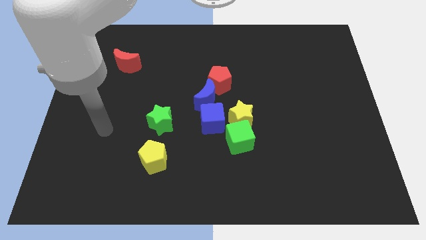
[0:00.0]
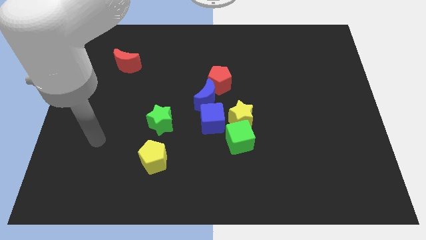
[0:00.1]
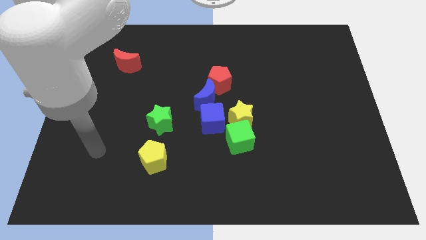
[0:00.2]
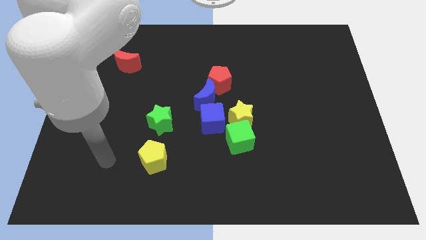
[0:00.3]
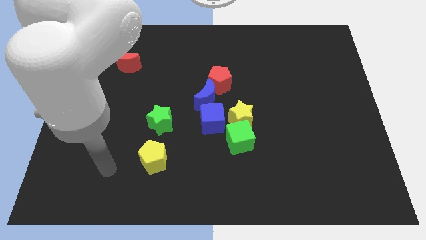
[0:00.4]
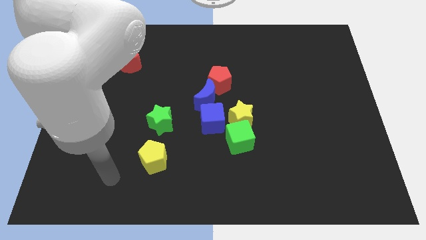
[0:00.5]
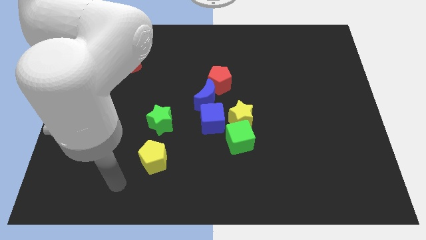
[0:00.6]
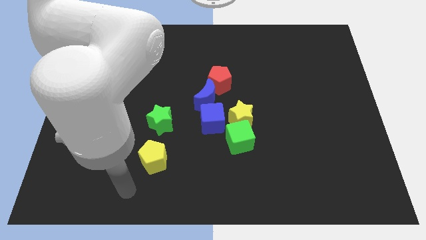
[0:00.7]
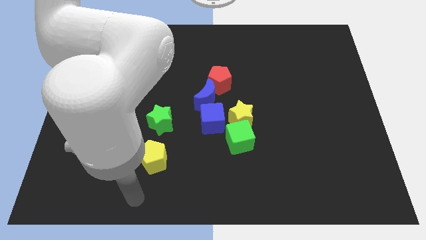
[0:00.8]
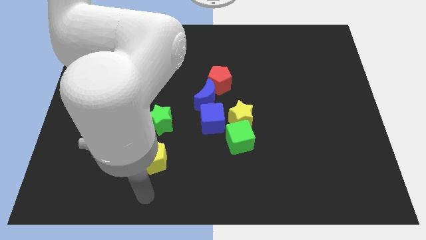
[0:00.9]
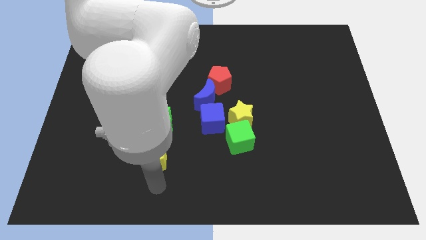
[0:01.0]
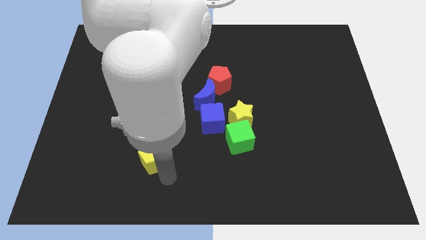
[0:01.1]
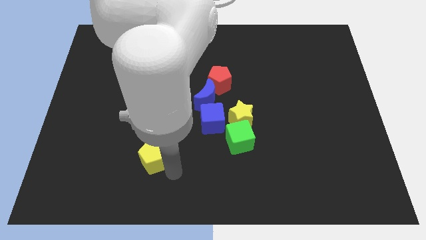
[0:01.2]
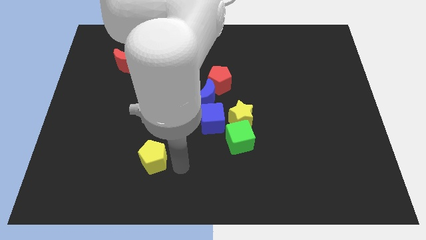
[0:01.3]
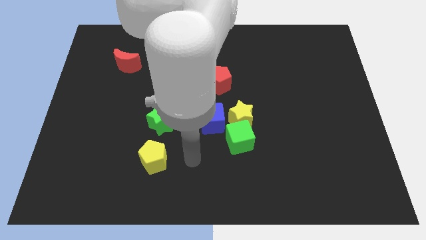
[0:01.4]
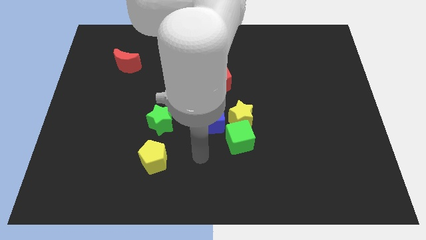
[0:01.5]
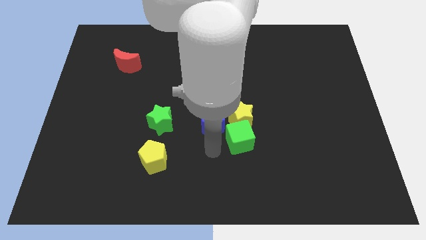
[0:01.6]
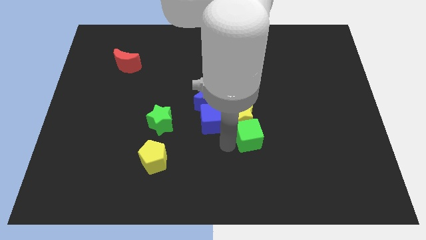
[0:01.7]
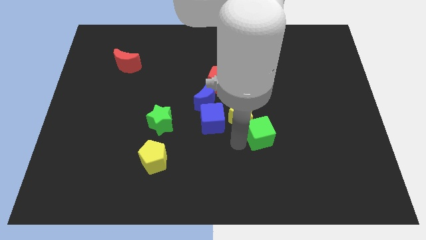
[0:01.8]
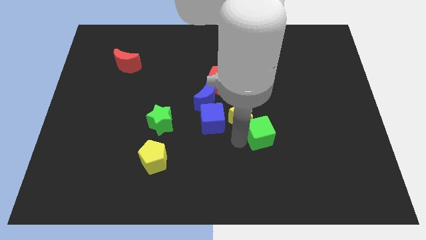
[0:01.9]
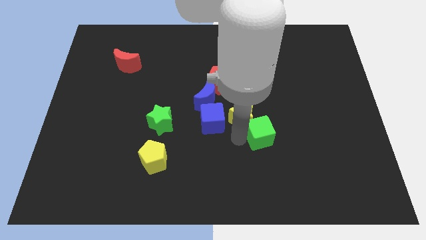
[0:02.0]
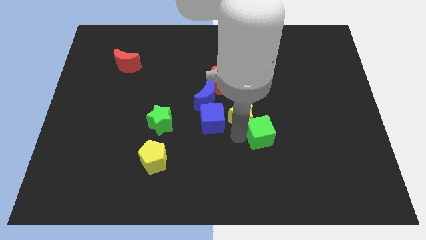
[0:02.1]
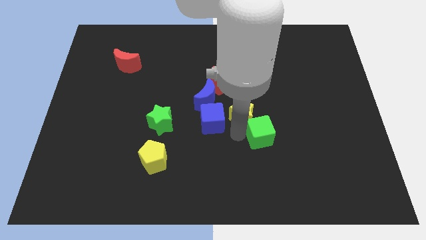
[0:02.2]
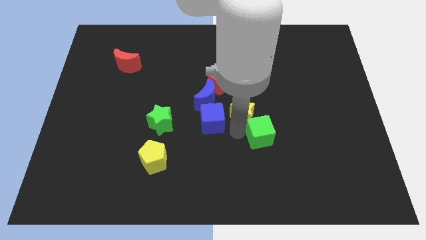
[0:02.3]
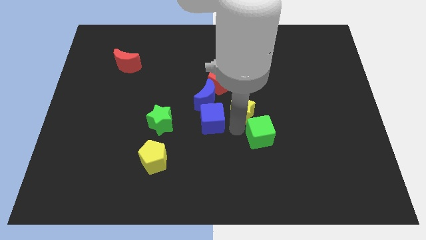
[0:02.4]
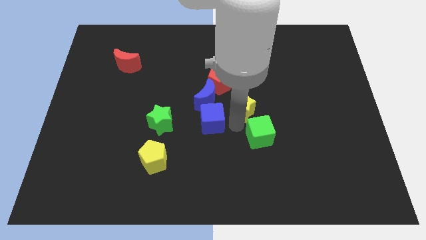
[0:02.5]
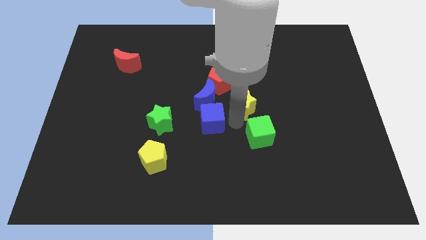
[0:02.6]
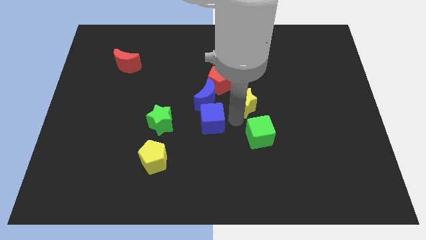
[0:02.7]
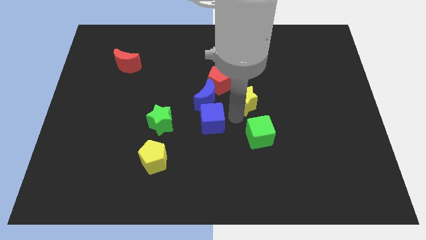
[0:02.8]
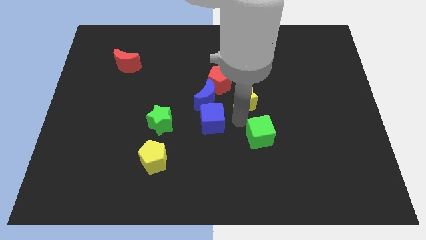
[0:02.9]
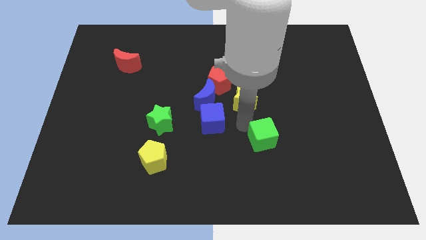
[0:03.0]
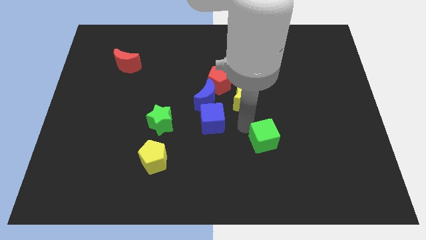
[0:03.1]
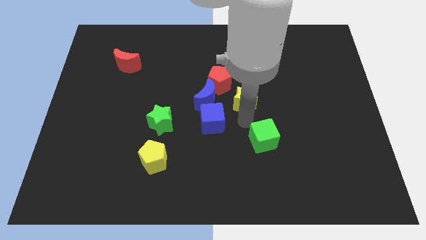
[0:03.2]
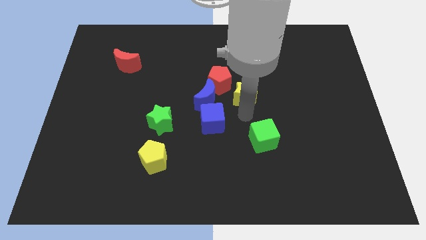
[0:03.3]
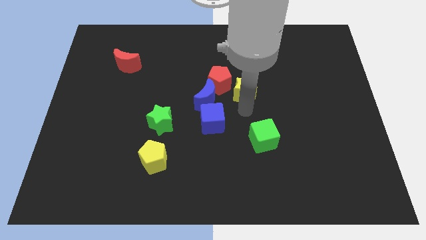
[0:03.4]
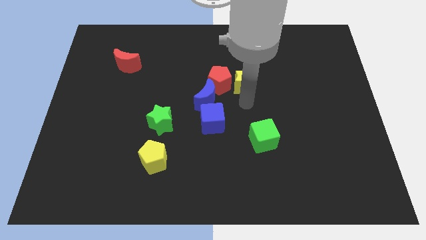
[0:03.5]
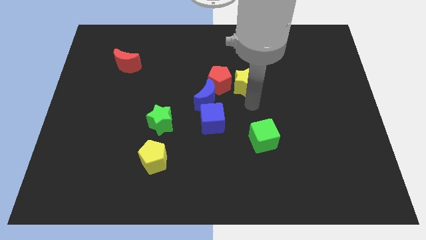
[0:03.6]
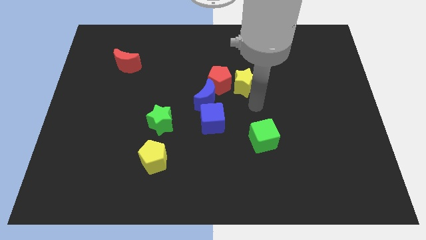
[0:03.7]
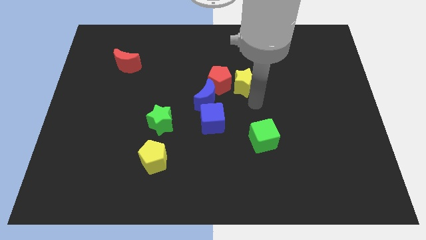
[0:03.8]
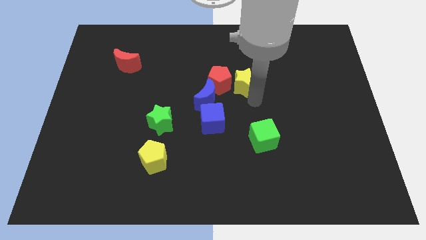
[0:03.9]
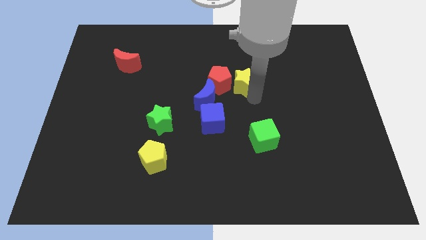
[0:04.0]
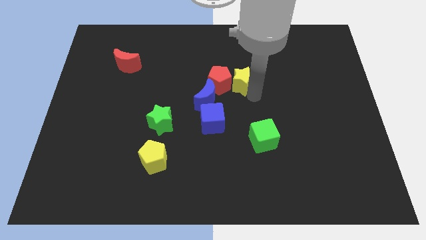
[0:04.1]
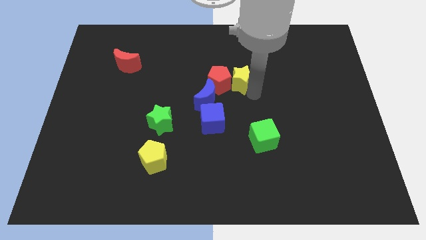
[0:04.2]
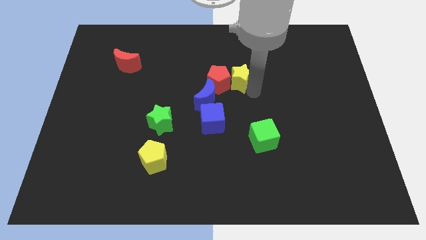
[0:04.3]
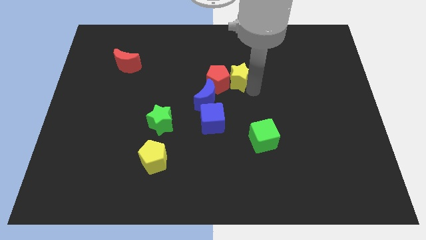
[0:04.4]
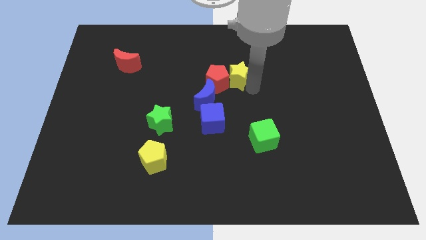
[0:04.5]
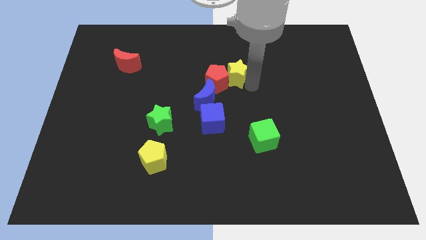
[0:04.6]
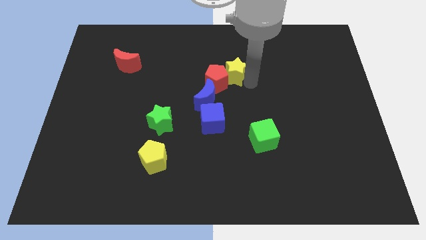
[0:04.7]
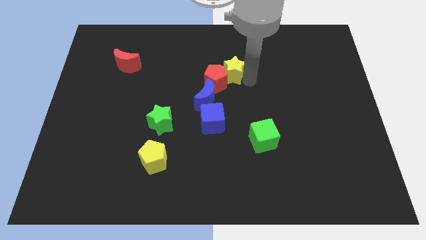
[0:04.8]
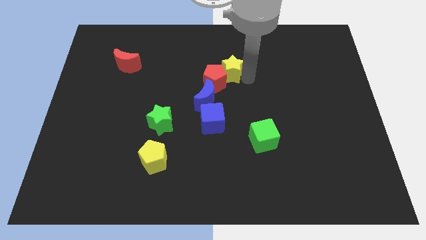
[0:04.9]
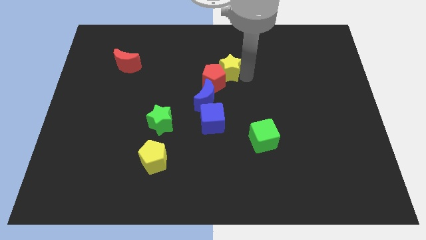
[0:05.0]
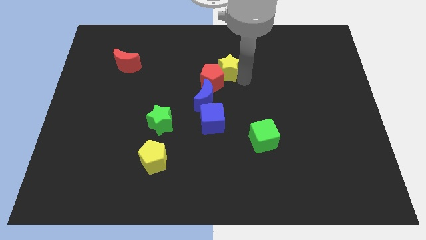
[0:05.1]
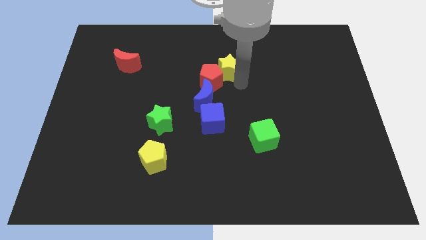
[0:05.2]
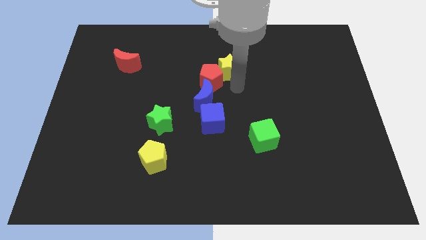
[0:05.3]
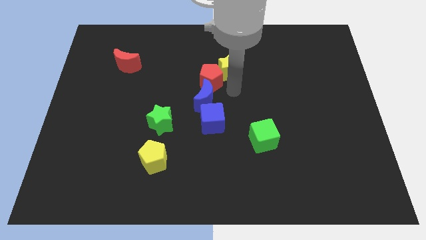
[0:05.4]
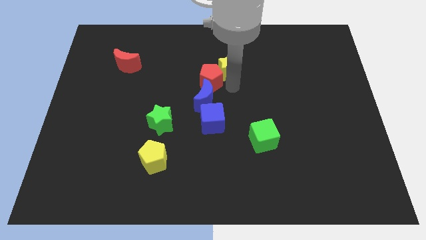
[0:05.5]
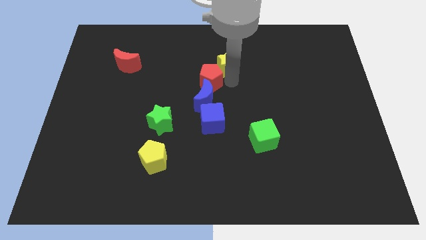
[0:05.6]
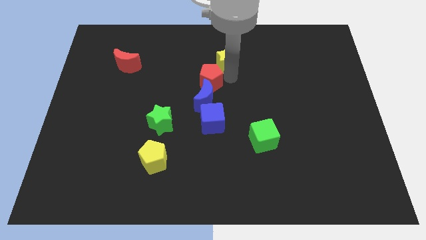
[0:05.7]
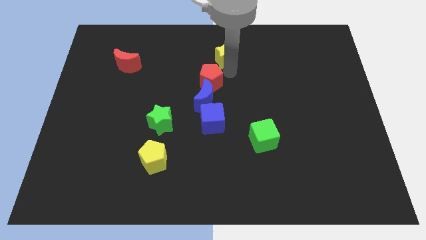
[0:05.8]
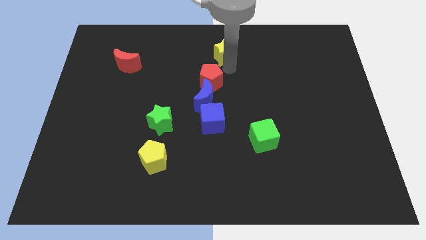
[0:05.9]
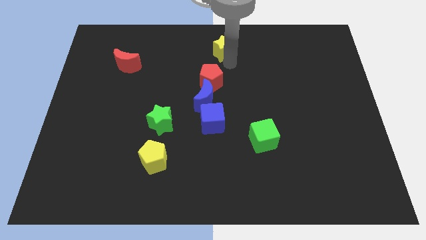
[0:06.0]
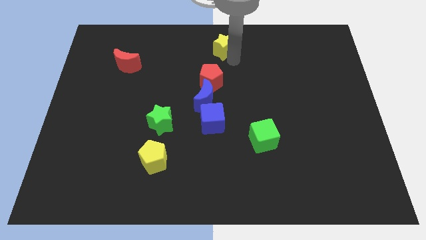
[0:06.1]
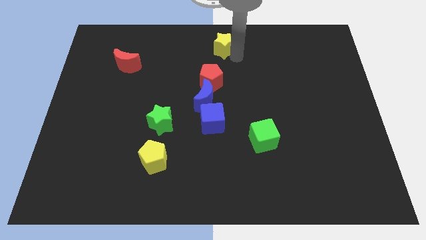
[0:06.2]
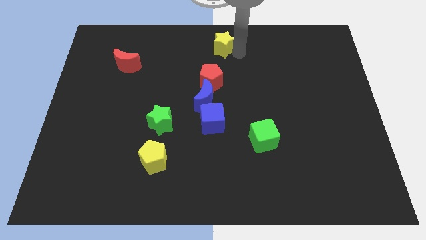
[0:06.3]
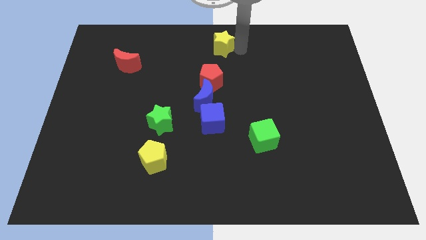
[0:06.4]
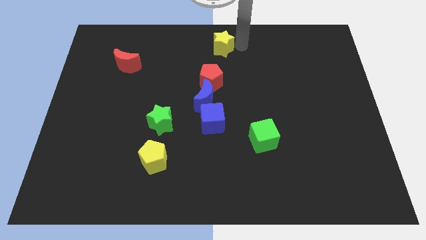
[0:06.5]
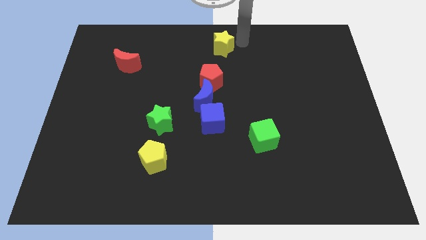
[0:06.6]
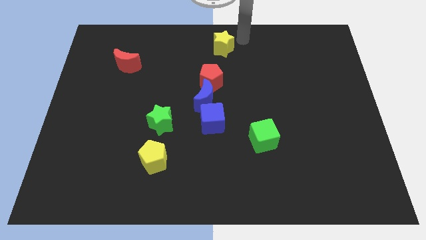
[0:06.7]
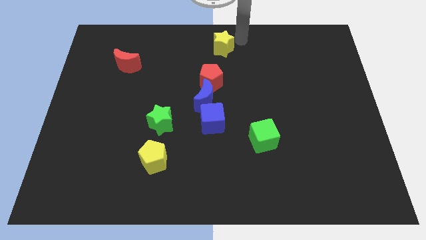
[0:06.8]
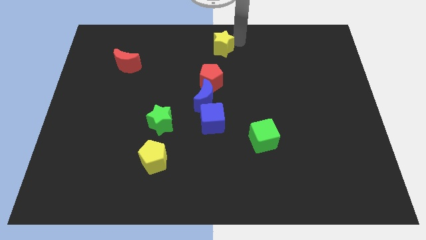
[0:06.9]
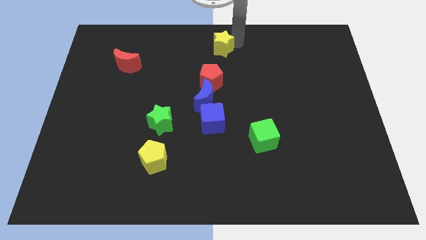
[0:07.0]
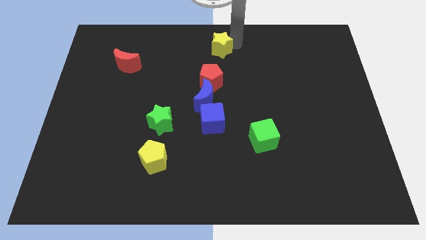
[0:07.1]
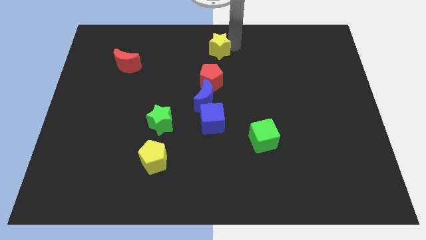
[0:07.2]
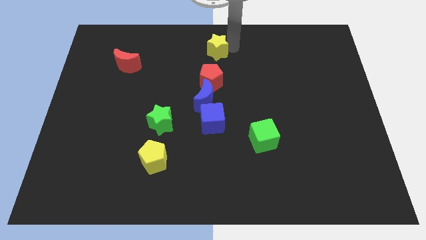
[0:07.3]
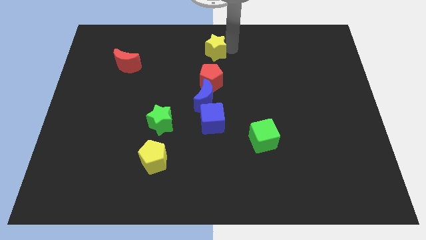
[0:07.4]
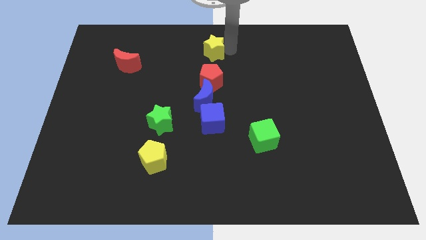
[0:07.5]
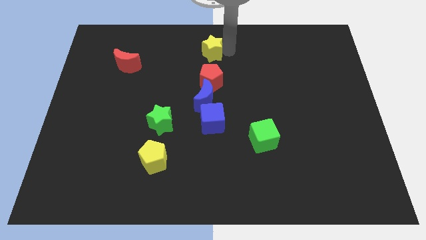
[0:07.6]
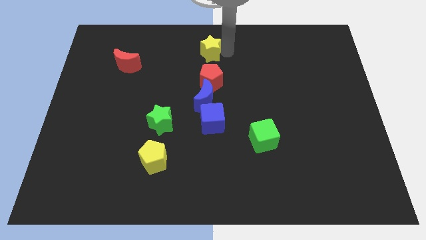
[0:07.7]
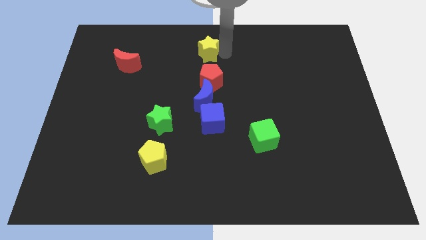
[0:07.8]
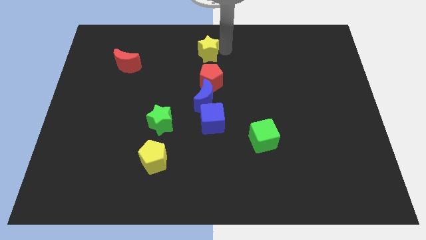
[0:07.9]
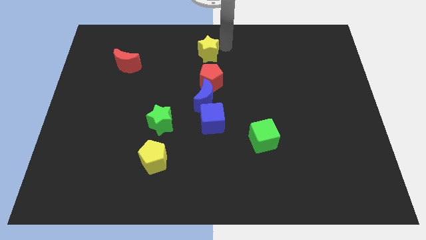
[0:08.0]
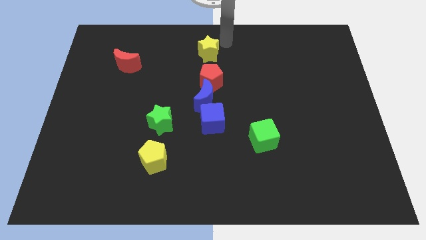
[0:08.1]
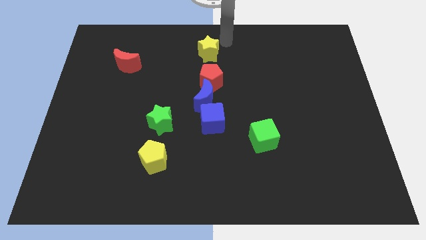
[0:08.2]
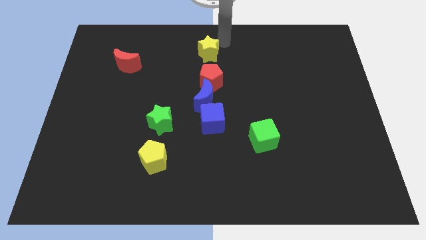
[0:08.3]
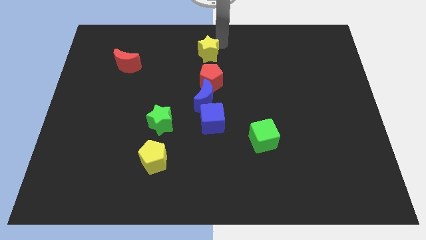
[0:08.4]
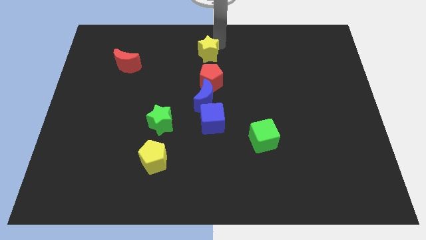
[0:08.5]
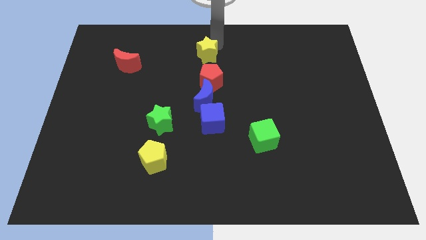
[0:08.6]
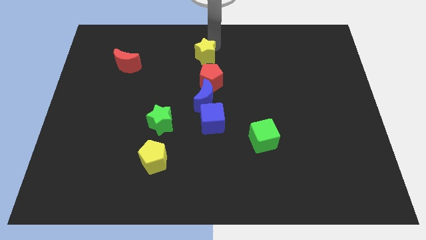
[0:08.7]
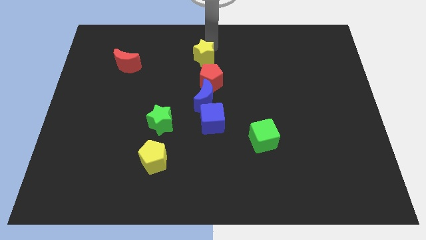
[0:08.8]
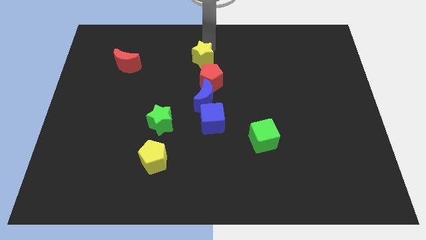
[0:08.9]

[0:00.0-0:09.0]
slide the yellow star diagonally up and to the left of the red pentagon
